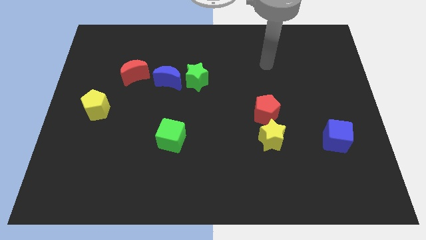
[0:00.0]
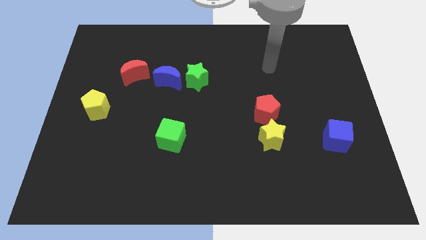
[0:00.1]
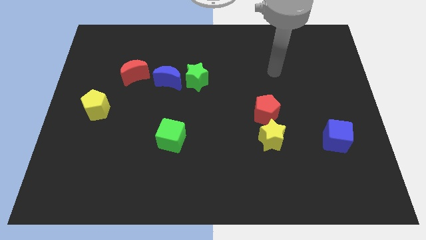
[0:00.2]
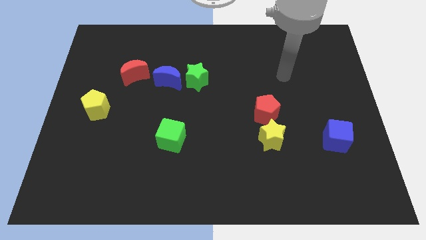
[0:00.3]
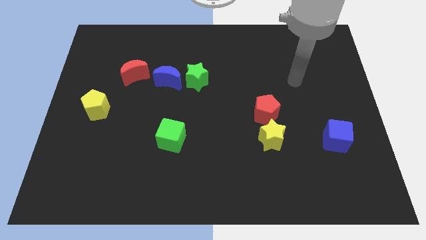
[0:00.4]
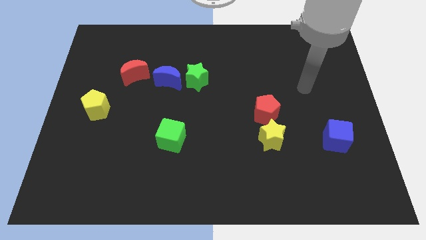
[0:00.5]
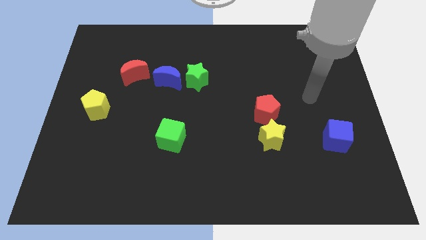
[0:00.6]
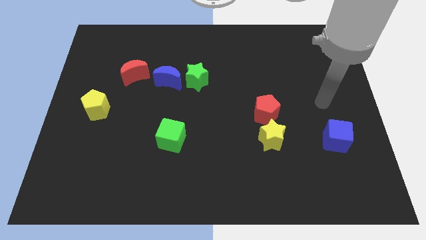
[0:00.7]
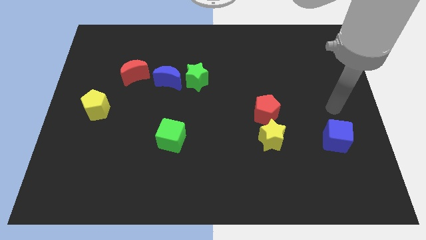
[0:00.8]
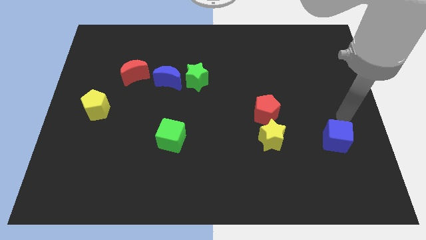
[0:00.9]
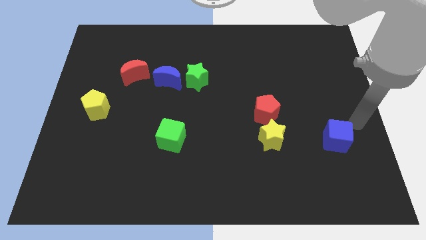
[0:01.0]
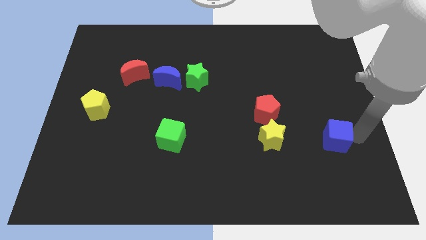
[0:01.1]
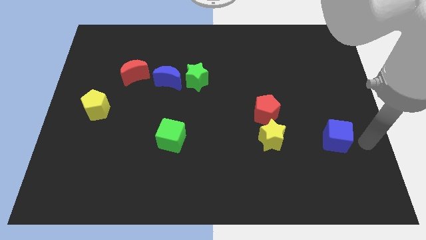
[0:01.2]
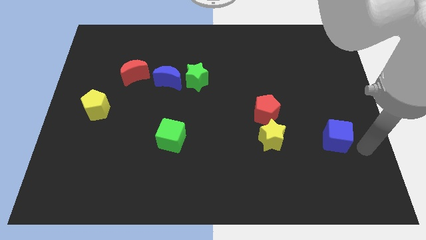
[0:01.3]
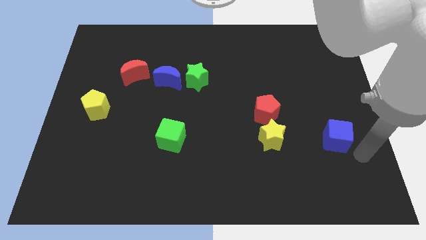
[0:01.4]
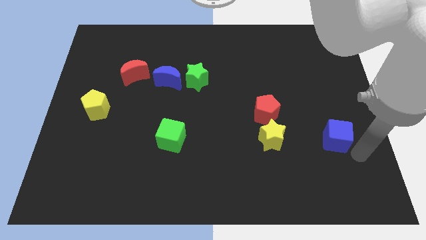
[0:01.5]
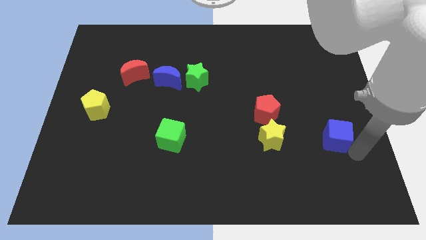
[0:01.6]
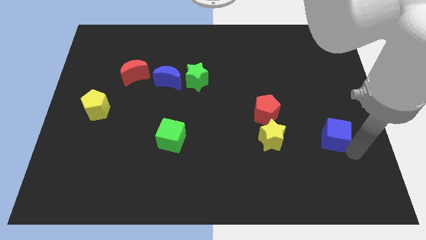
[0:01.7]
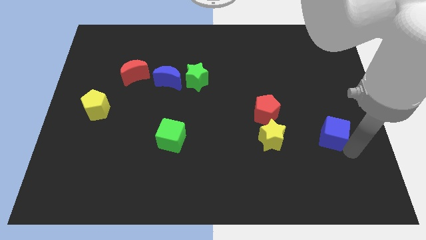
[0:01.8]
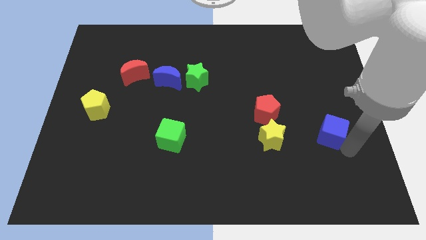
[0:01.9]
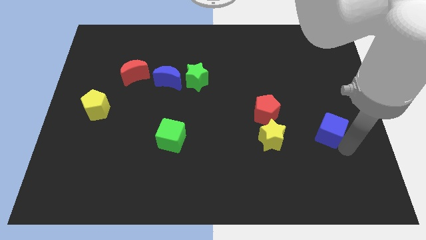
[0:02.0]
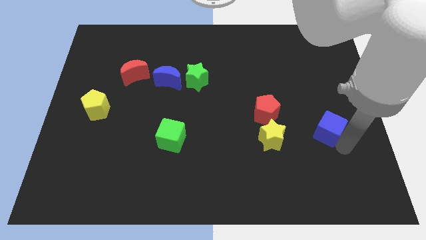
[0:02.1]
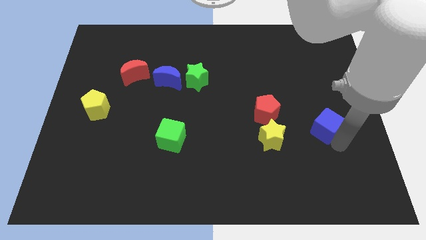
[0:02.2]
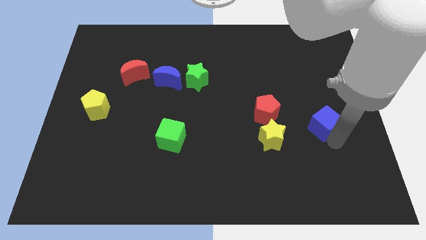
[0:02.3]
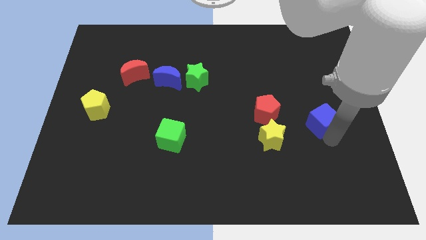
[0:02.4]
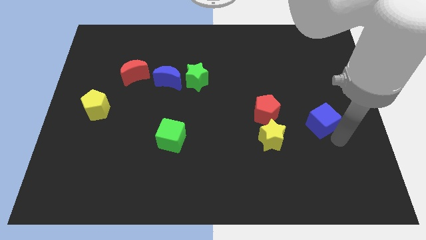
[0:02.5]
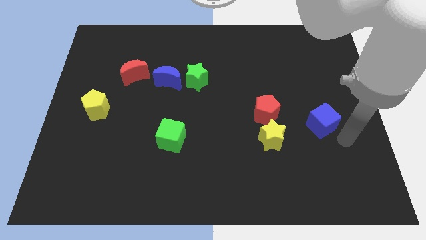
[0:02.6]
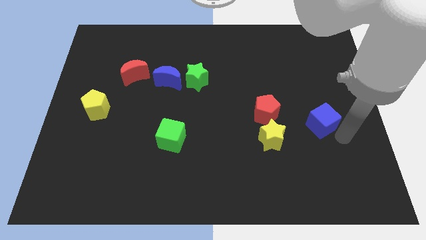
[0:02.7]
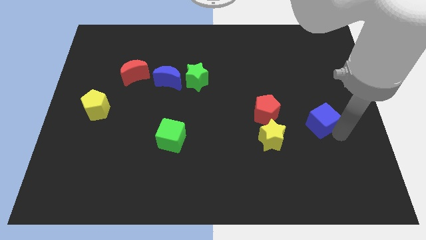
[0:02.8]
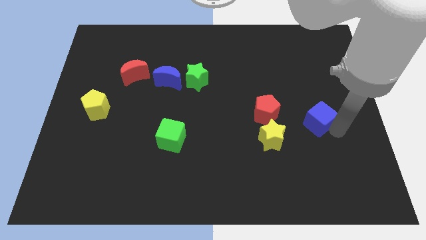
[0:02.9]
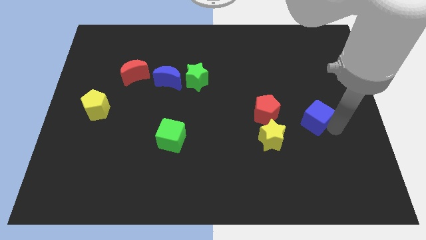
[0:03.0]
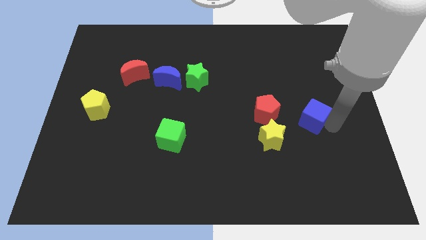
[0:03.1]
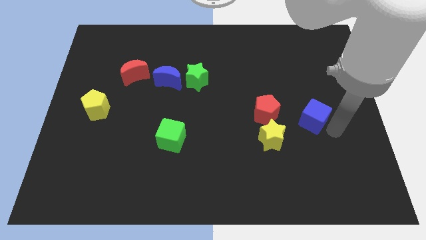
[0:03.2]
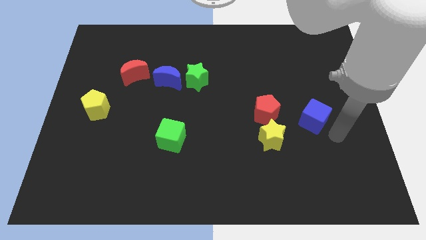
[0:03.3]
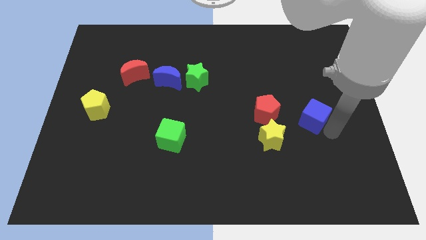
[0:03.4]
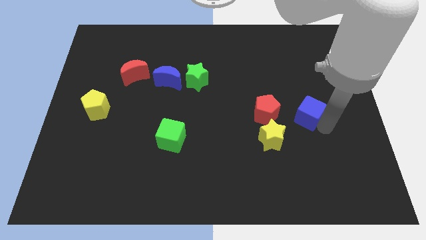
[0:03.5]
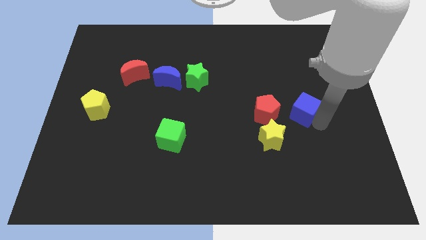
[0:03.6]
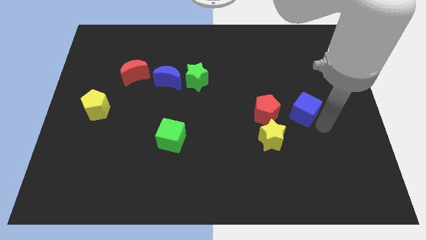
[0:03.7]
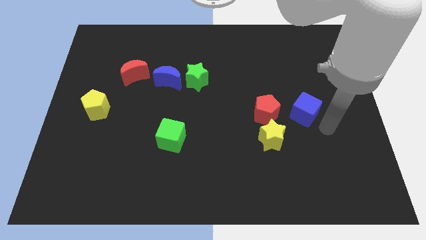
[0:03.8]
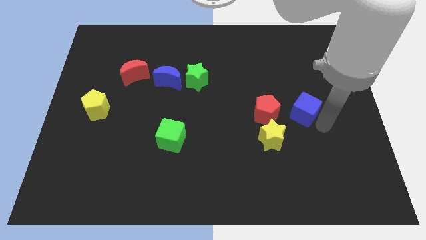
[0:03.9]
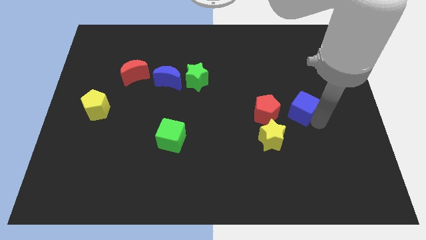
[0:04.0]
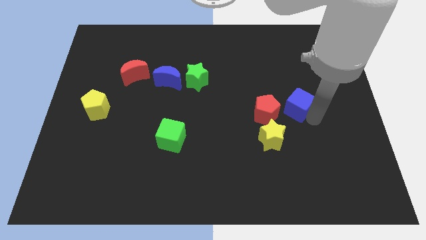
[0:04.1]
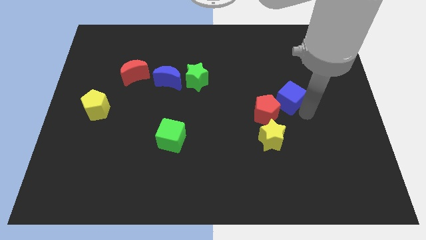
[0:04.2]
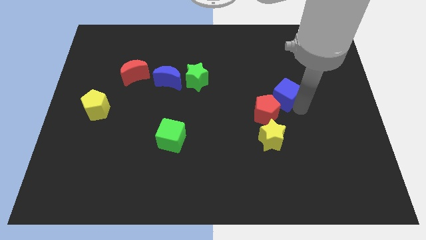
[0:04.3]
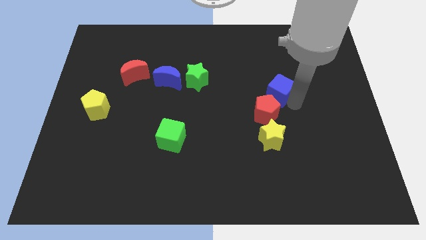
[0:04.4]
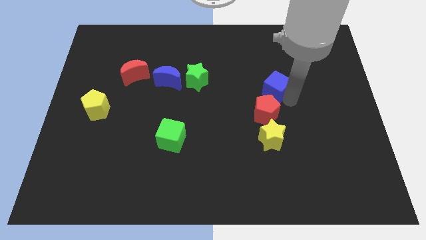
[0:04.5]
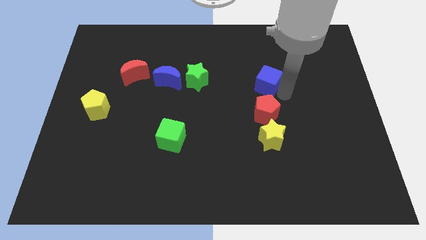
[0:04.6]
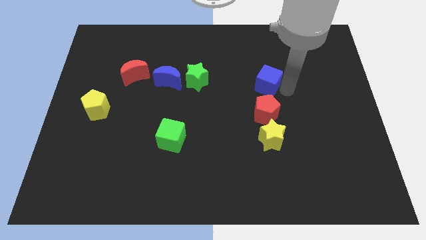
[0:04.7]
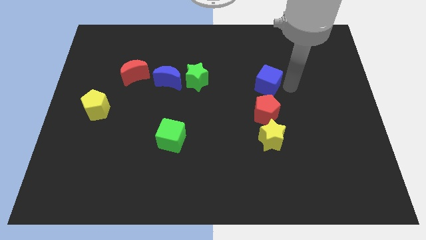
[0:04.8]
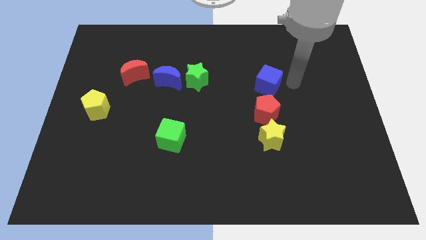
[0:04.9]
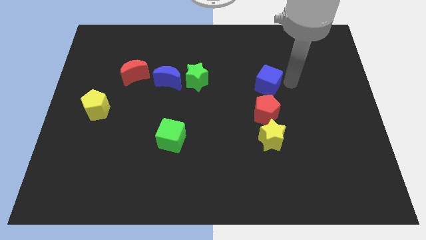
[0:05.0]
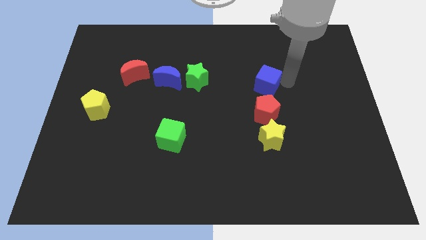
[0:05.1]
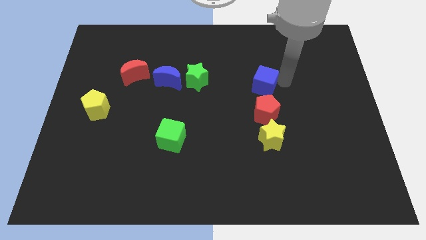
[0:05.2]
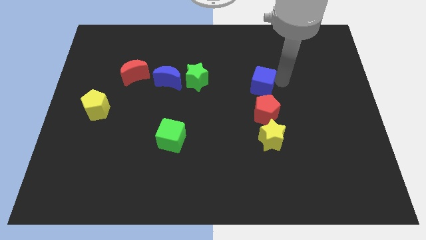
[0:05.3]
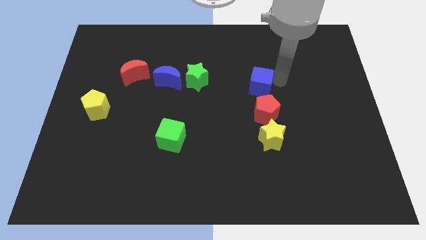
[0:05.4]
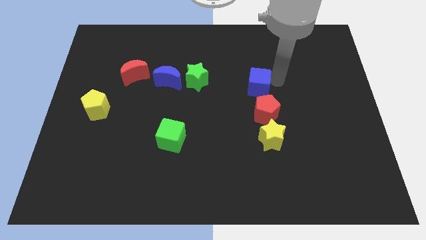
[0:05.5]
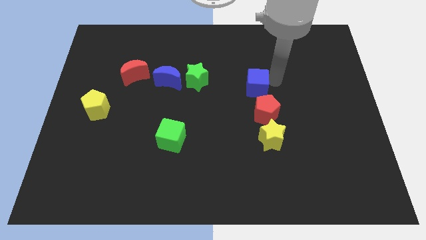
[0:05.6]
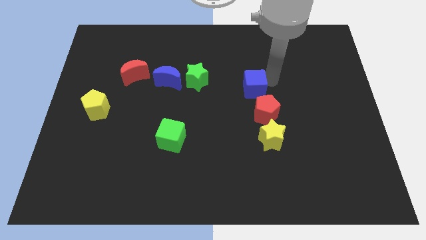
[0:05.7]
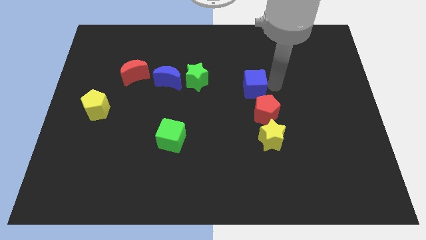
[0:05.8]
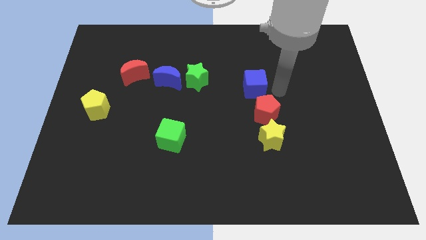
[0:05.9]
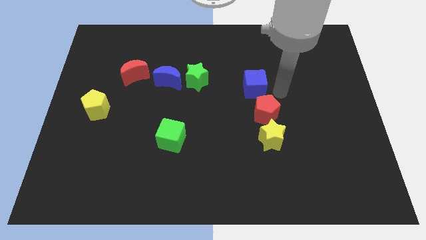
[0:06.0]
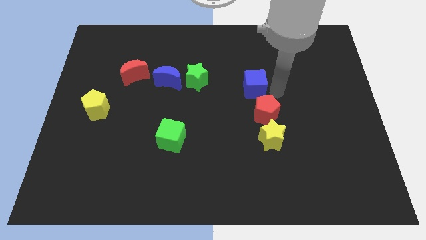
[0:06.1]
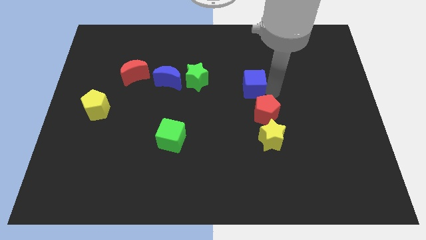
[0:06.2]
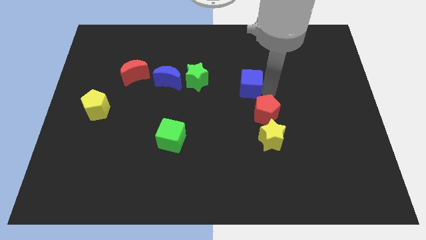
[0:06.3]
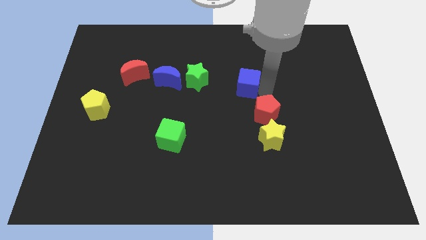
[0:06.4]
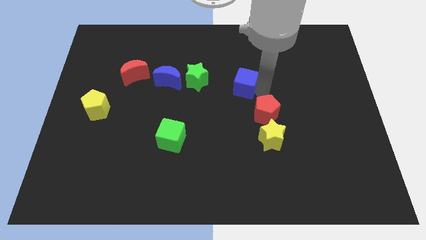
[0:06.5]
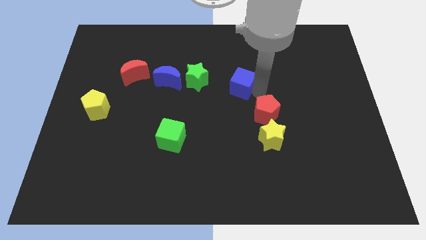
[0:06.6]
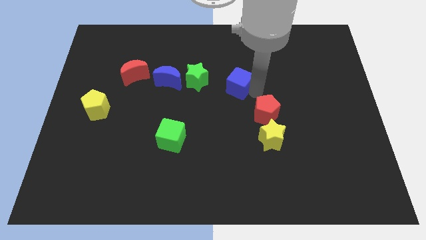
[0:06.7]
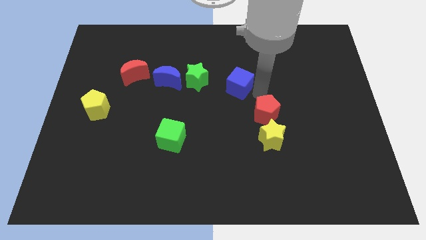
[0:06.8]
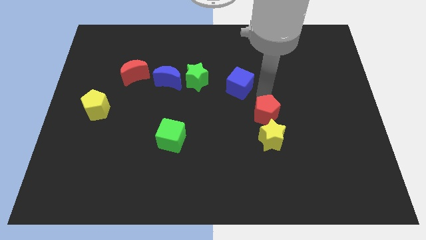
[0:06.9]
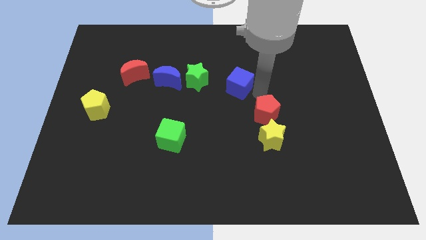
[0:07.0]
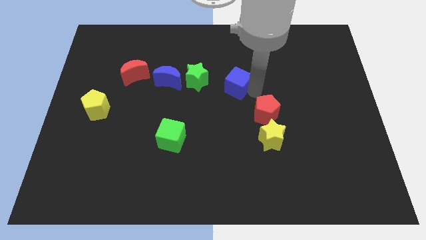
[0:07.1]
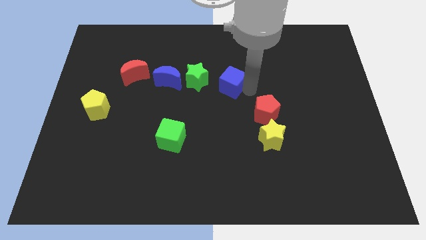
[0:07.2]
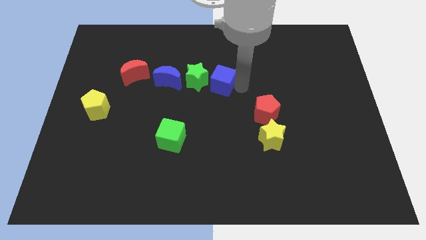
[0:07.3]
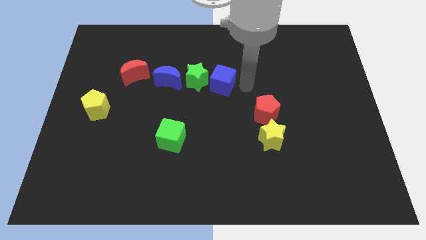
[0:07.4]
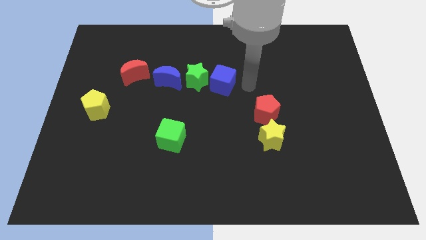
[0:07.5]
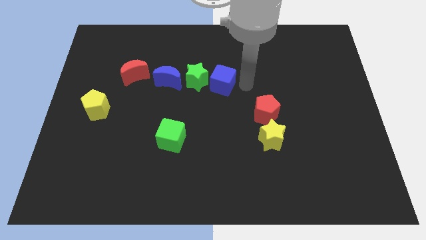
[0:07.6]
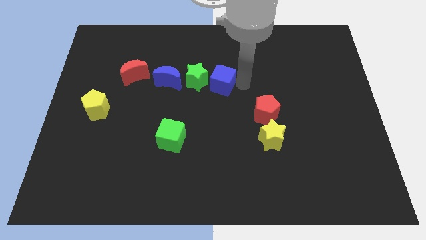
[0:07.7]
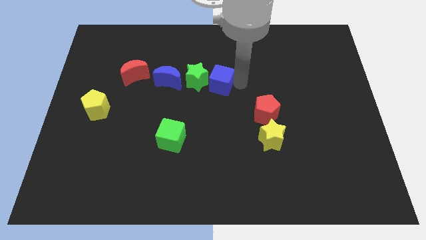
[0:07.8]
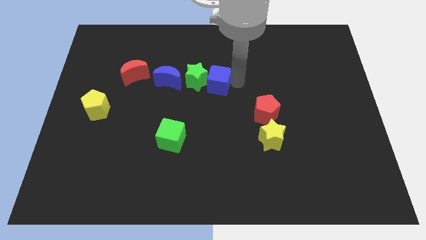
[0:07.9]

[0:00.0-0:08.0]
move the blue cube to the green star
